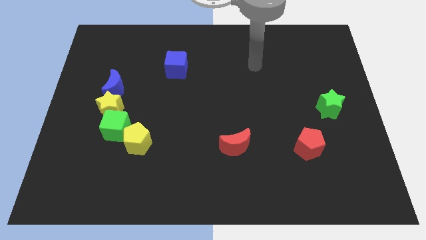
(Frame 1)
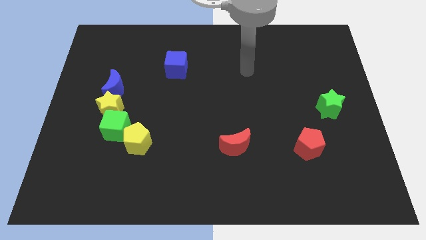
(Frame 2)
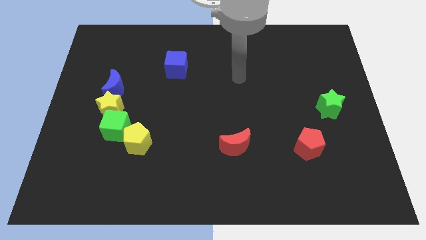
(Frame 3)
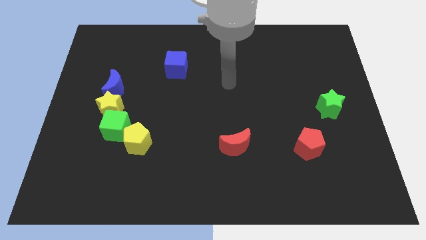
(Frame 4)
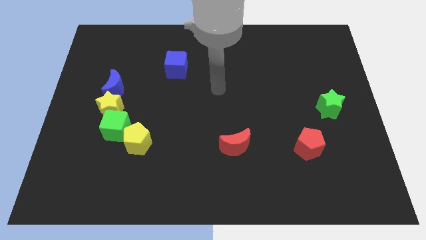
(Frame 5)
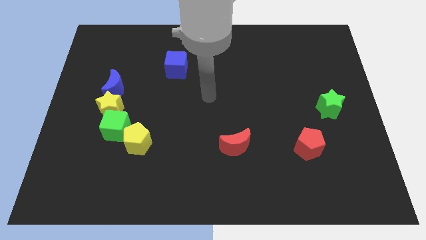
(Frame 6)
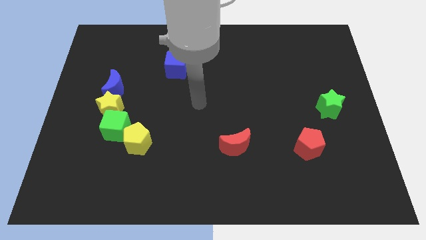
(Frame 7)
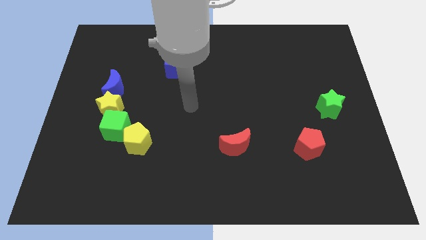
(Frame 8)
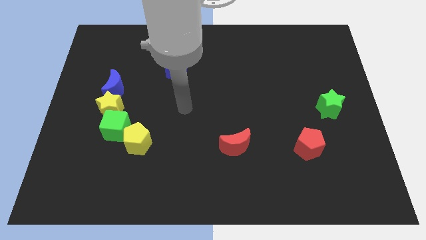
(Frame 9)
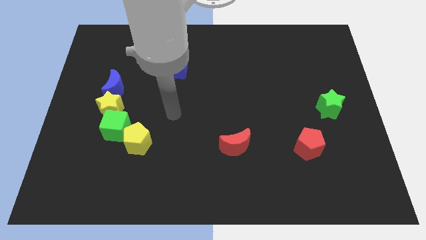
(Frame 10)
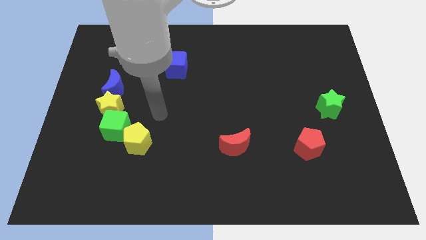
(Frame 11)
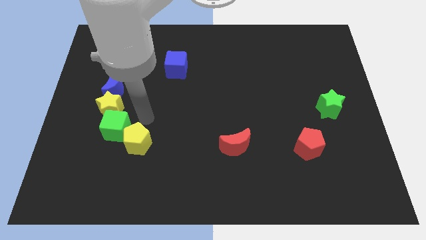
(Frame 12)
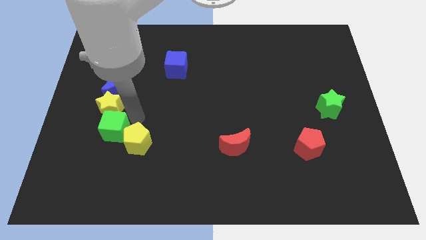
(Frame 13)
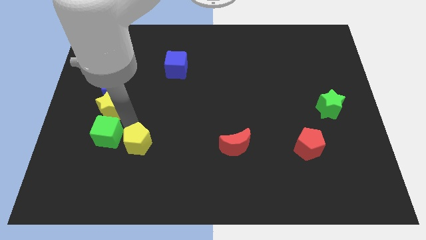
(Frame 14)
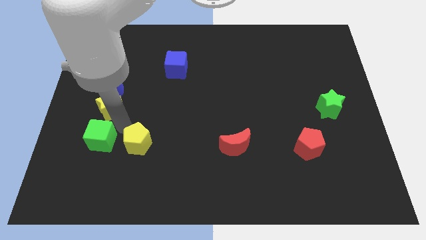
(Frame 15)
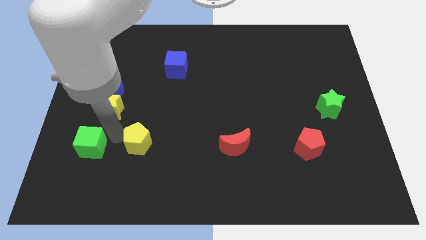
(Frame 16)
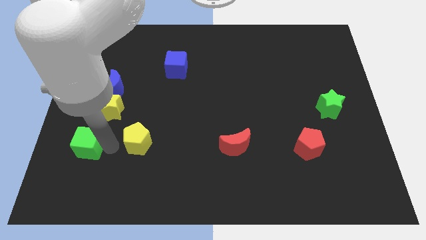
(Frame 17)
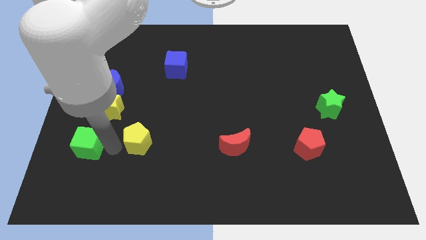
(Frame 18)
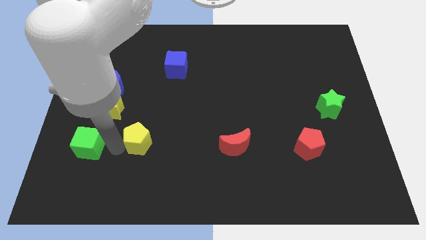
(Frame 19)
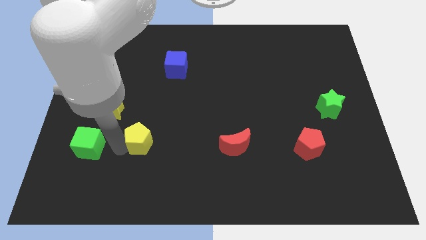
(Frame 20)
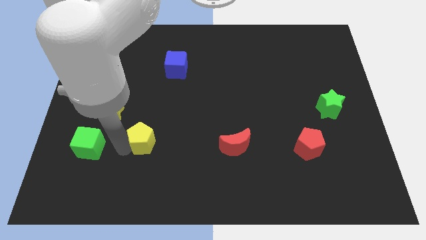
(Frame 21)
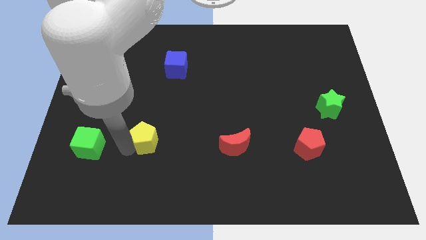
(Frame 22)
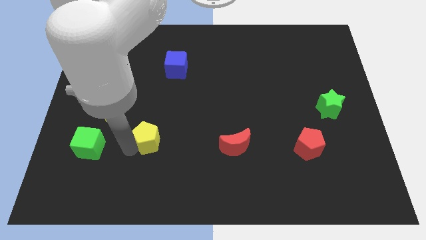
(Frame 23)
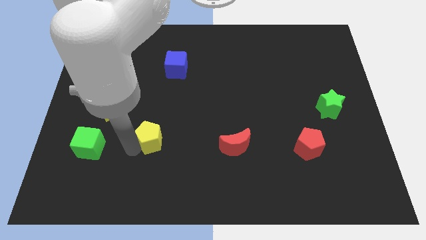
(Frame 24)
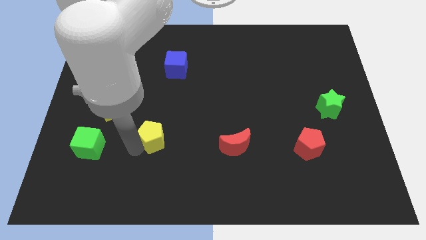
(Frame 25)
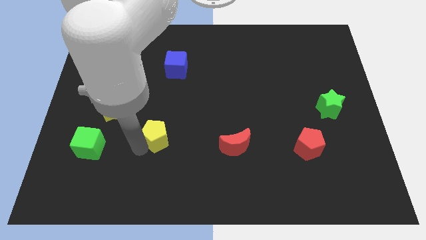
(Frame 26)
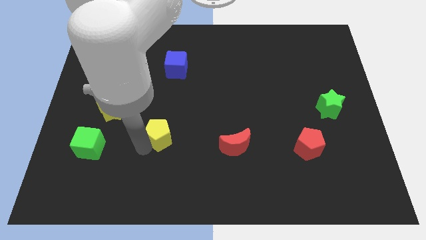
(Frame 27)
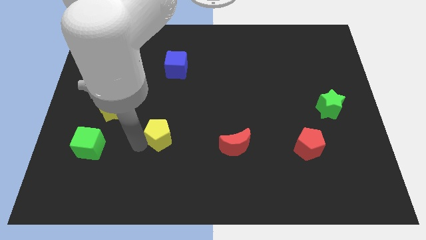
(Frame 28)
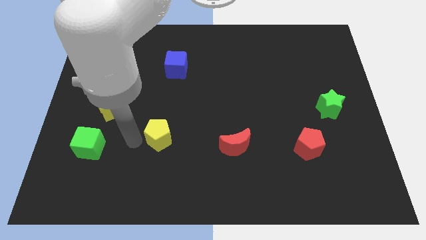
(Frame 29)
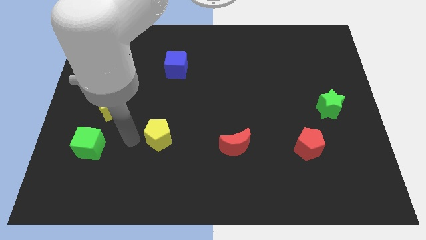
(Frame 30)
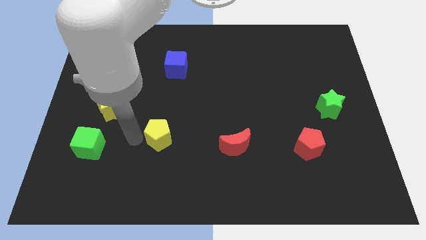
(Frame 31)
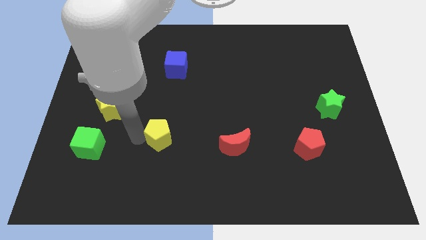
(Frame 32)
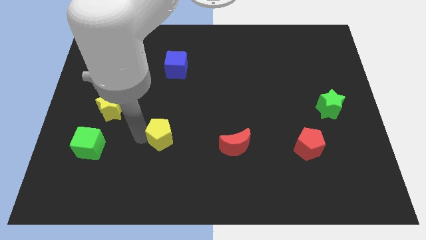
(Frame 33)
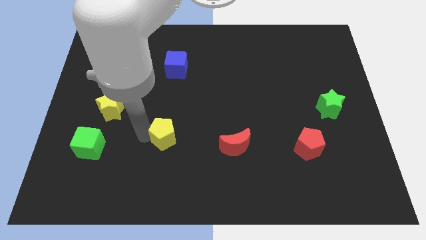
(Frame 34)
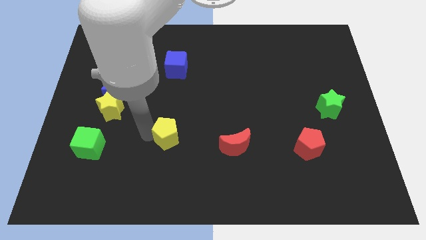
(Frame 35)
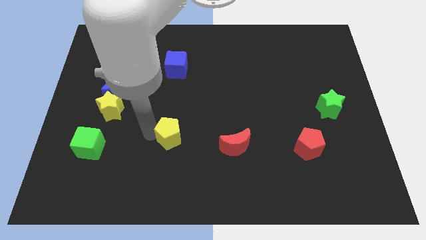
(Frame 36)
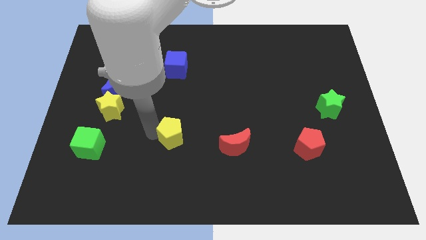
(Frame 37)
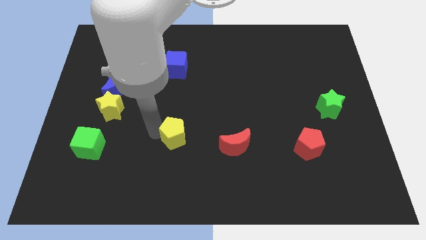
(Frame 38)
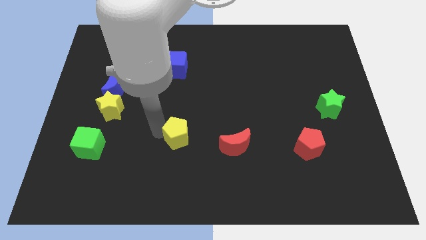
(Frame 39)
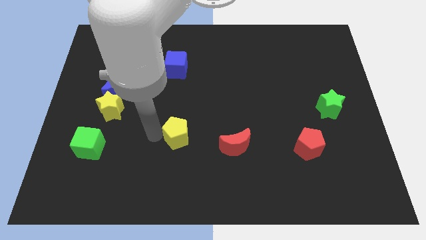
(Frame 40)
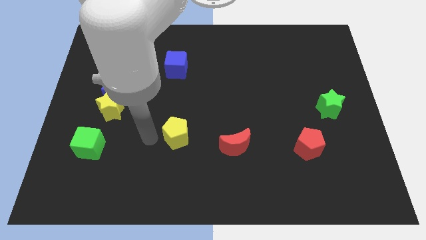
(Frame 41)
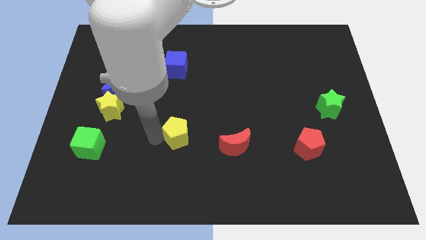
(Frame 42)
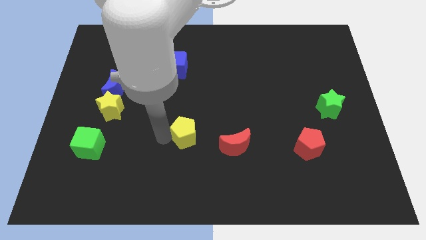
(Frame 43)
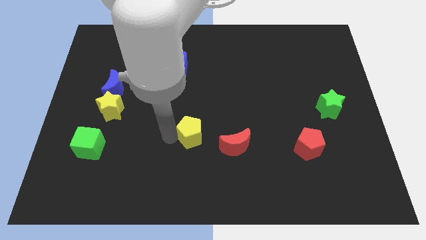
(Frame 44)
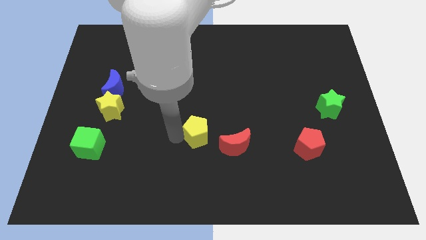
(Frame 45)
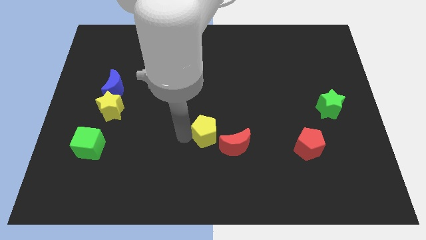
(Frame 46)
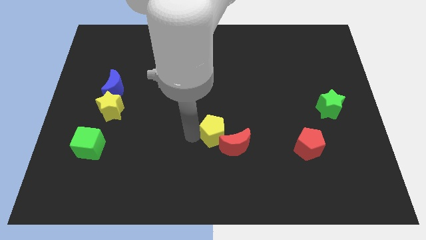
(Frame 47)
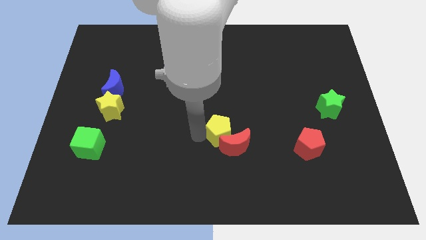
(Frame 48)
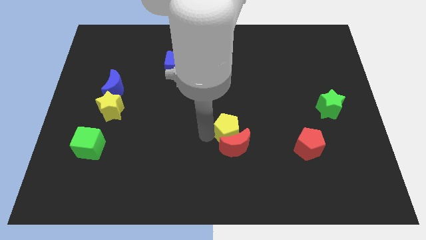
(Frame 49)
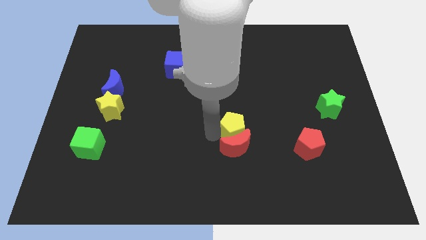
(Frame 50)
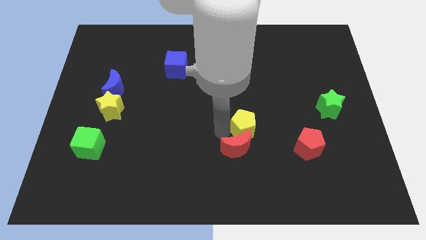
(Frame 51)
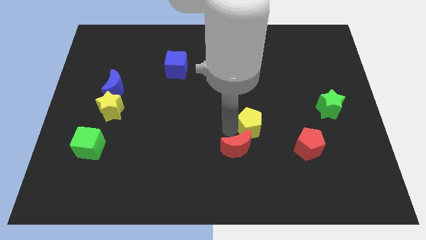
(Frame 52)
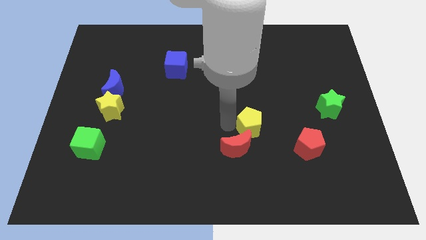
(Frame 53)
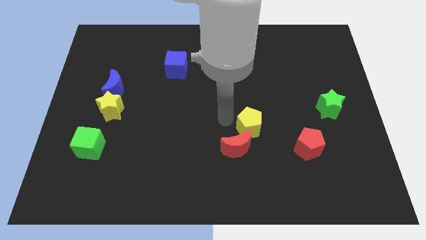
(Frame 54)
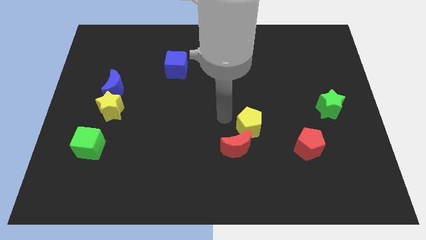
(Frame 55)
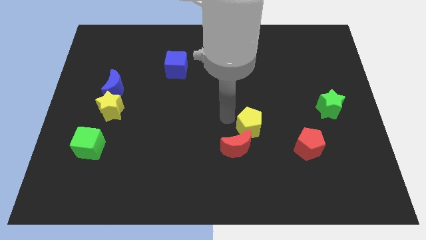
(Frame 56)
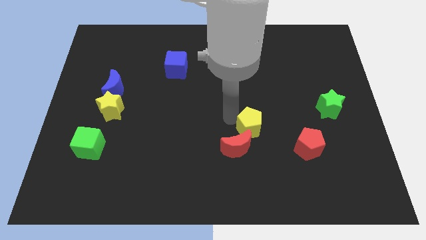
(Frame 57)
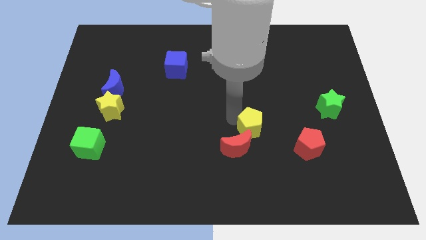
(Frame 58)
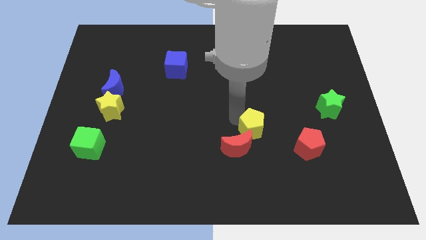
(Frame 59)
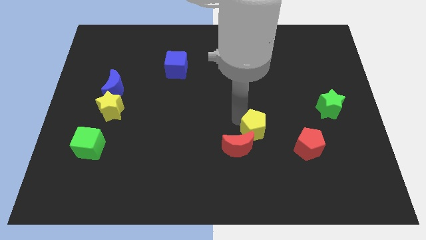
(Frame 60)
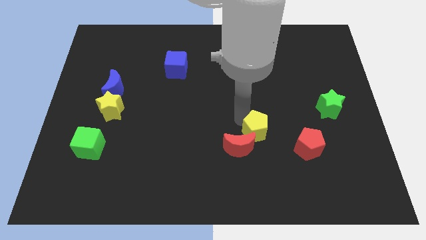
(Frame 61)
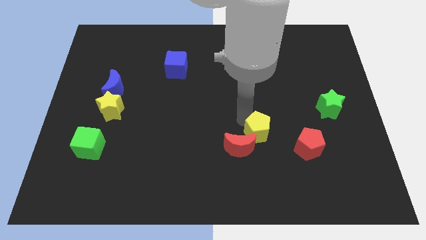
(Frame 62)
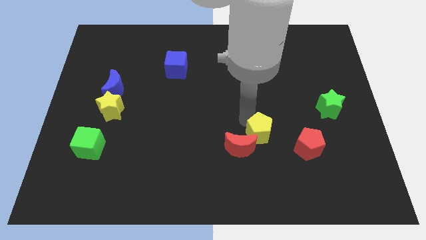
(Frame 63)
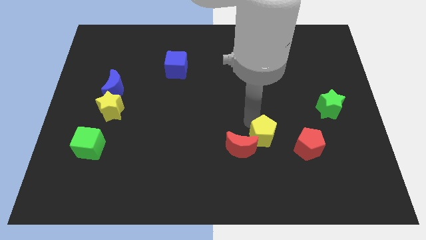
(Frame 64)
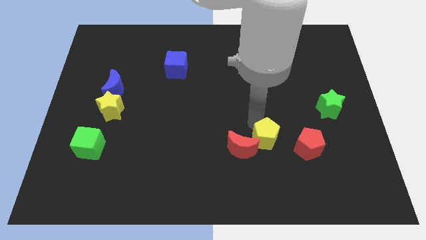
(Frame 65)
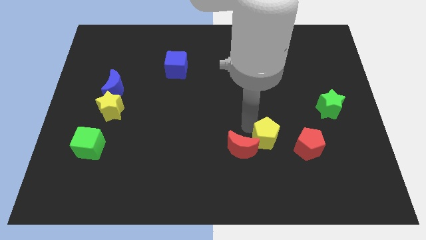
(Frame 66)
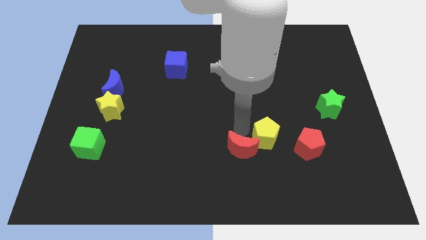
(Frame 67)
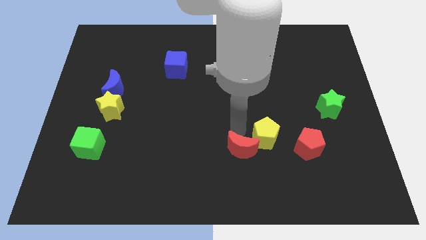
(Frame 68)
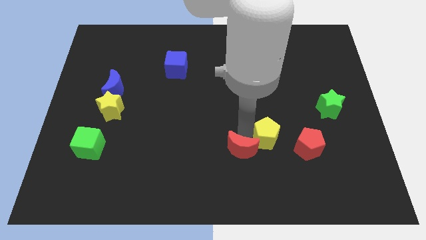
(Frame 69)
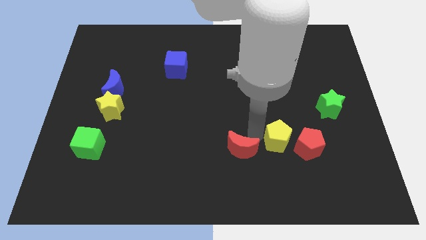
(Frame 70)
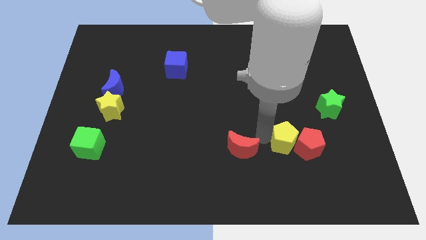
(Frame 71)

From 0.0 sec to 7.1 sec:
slide the yellow pentagon to the red pentagon
